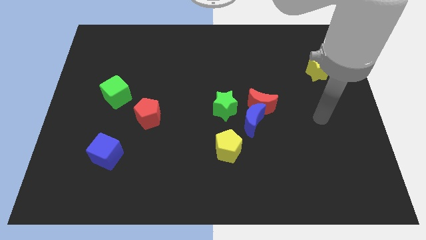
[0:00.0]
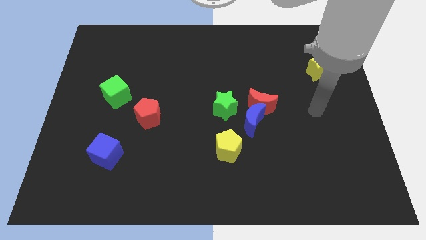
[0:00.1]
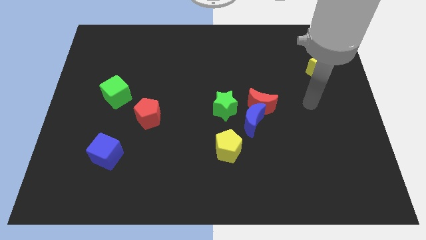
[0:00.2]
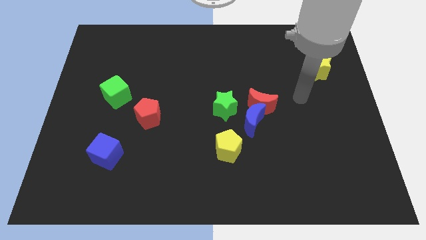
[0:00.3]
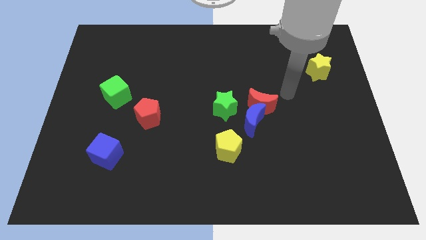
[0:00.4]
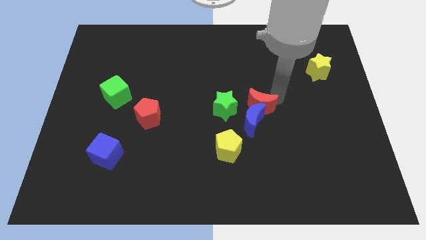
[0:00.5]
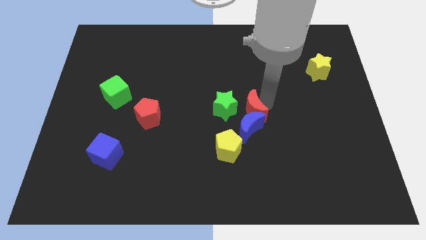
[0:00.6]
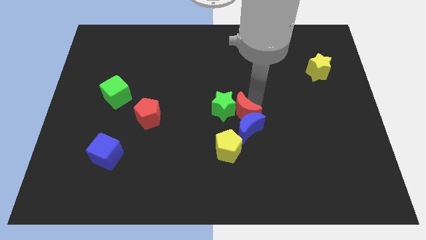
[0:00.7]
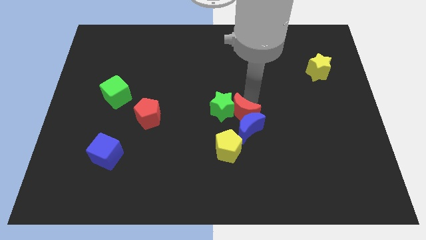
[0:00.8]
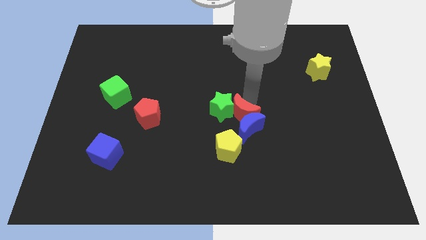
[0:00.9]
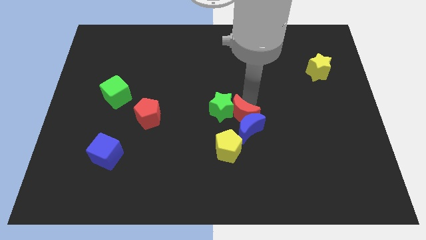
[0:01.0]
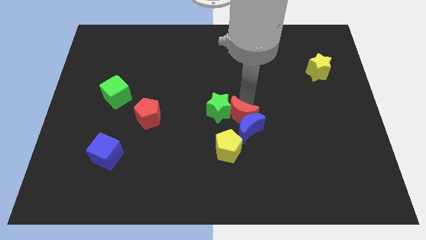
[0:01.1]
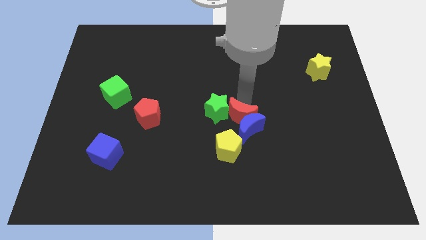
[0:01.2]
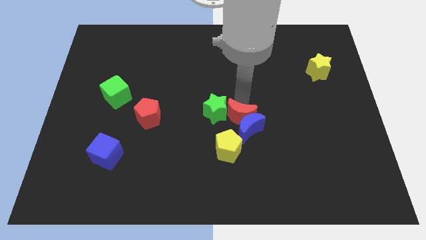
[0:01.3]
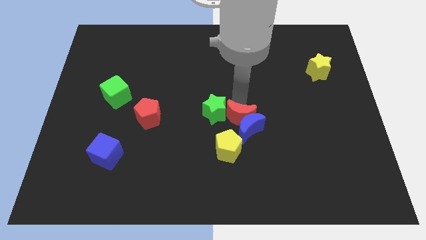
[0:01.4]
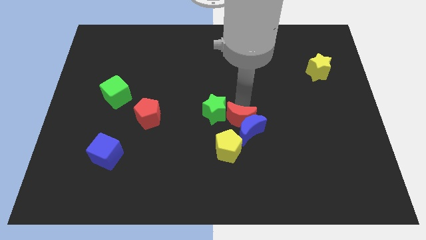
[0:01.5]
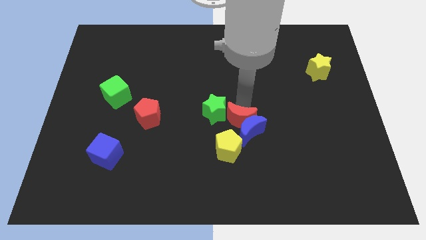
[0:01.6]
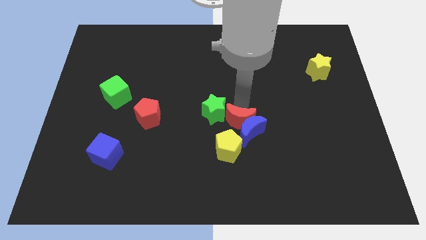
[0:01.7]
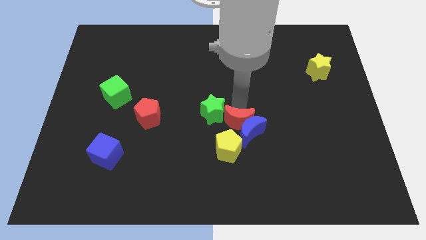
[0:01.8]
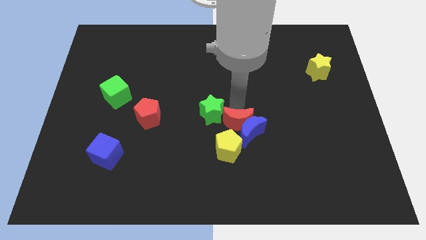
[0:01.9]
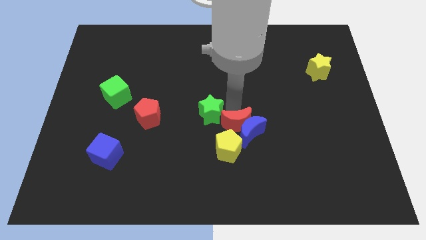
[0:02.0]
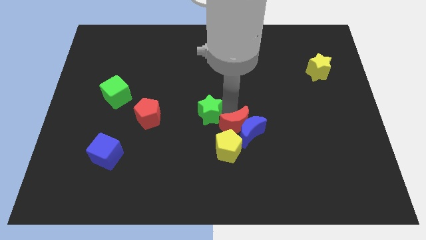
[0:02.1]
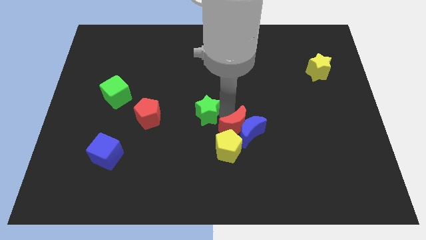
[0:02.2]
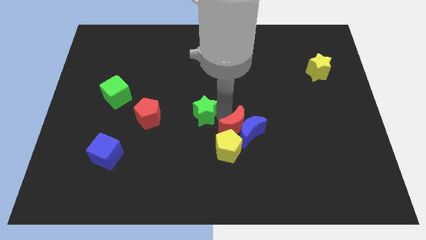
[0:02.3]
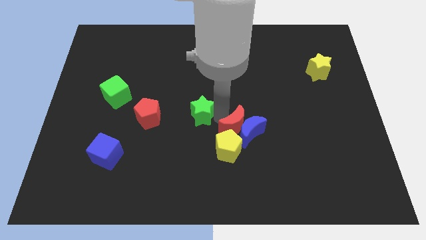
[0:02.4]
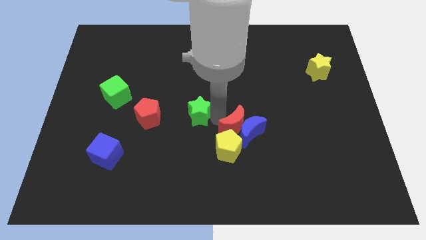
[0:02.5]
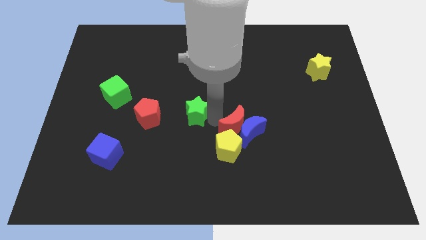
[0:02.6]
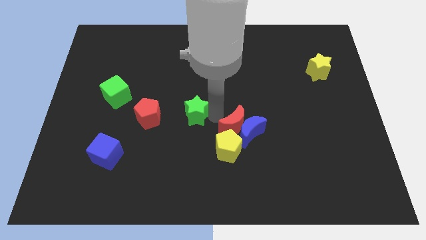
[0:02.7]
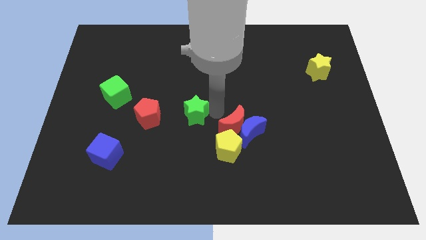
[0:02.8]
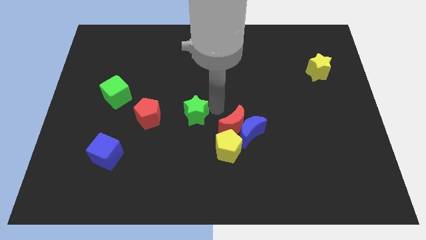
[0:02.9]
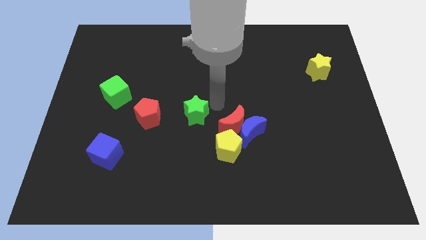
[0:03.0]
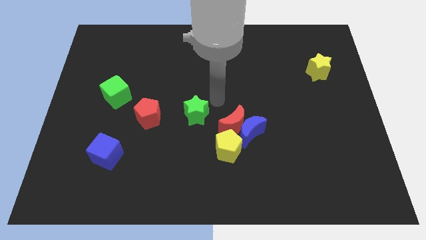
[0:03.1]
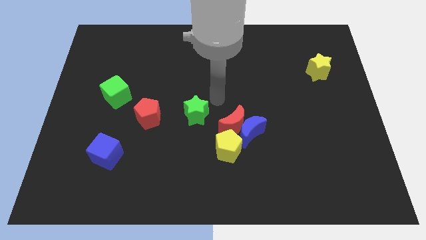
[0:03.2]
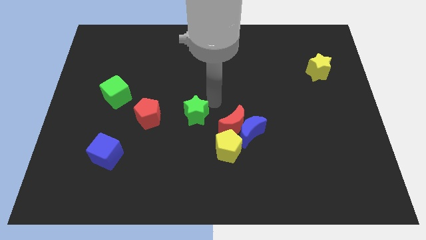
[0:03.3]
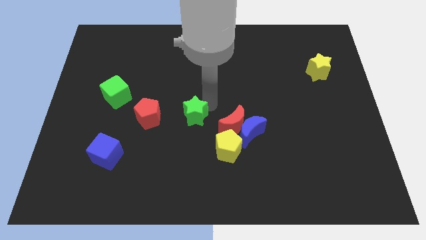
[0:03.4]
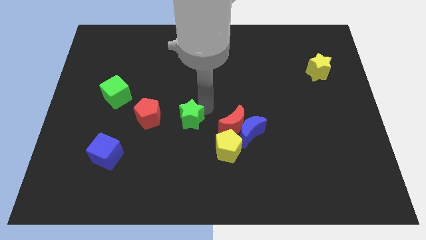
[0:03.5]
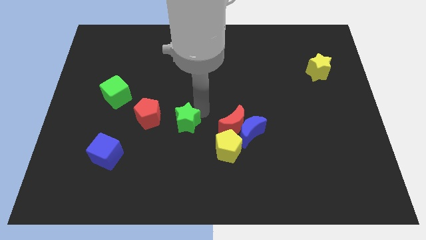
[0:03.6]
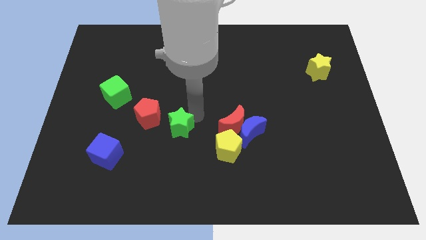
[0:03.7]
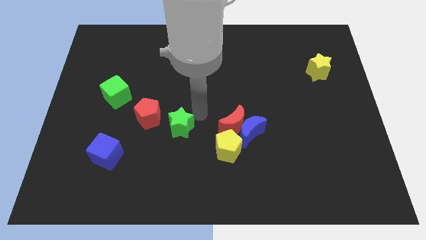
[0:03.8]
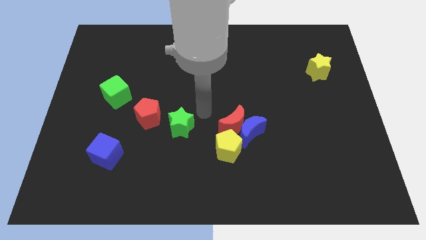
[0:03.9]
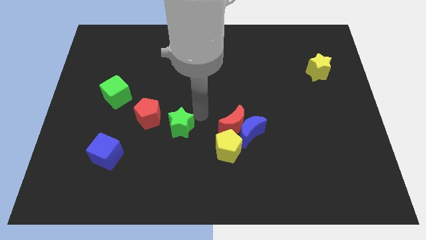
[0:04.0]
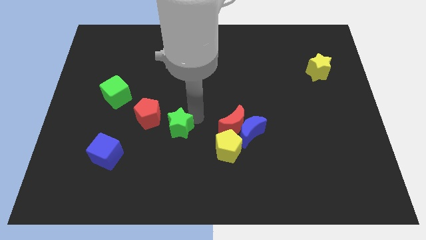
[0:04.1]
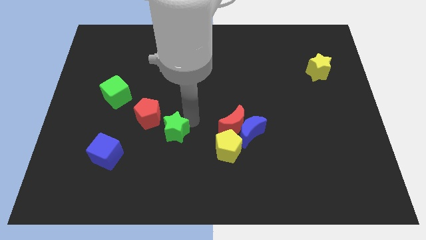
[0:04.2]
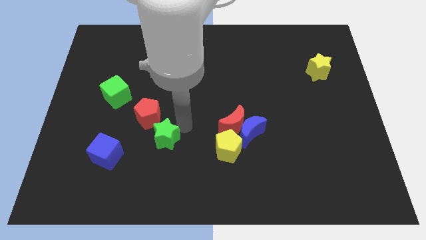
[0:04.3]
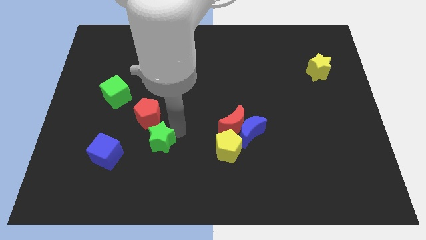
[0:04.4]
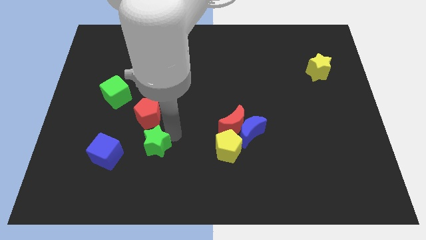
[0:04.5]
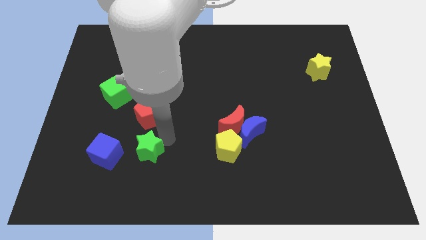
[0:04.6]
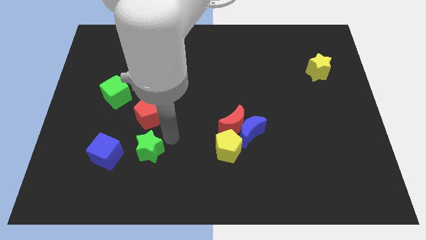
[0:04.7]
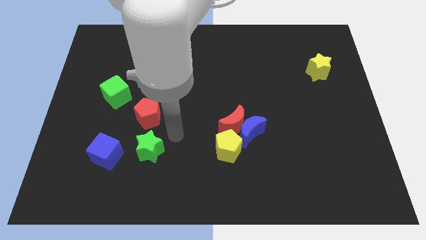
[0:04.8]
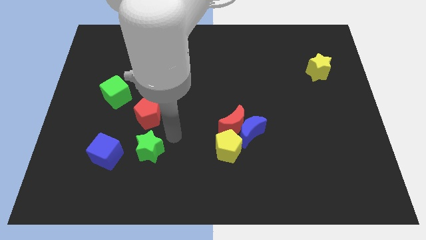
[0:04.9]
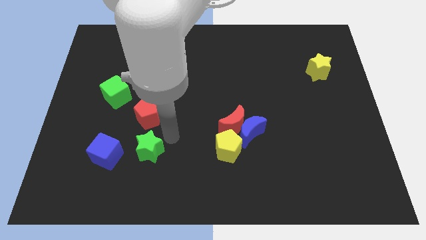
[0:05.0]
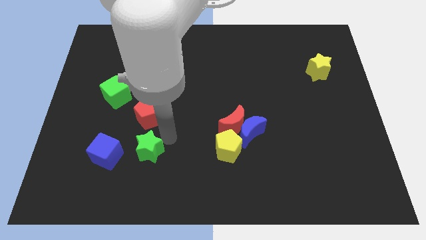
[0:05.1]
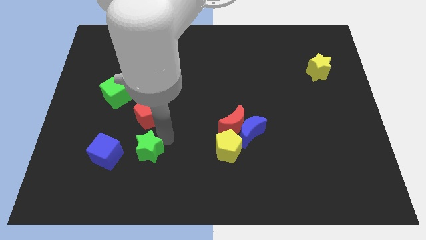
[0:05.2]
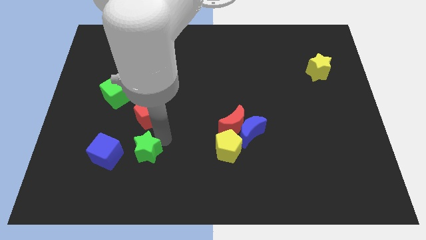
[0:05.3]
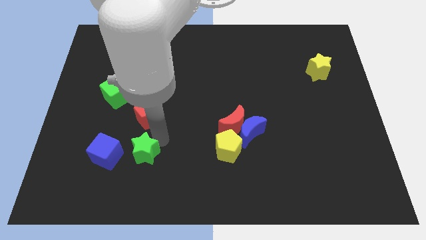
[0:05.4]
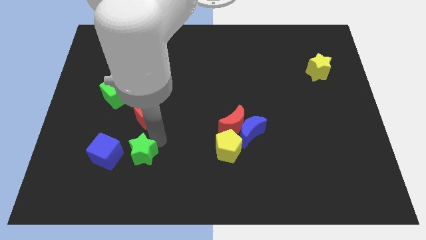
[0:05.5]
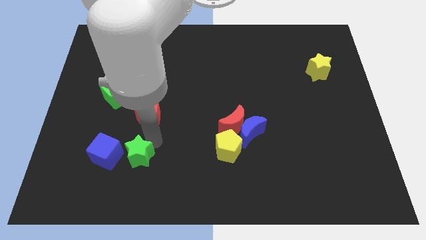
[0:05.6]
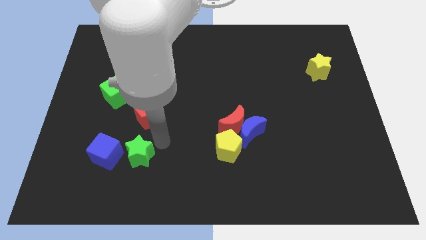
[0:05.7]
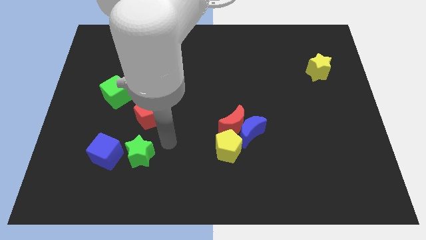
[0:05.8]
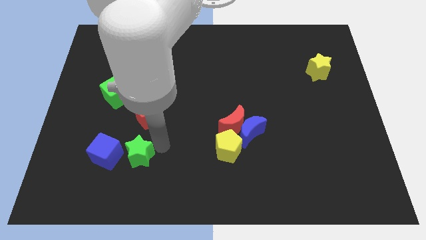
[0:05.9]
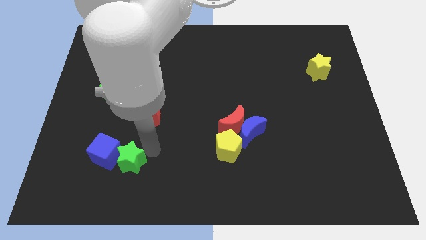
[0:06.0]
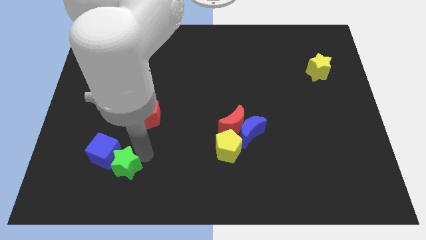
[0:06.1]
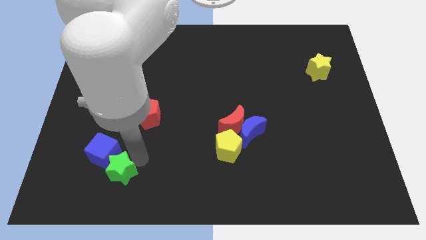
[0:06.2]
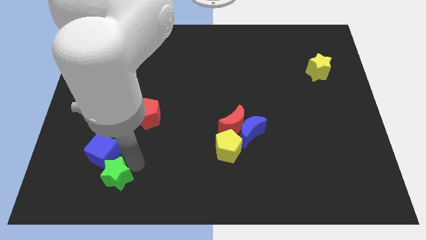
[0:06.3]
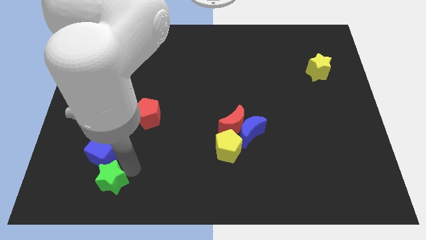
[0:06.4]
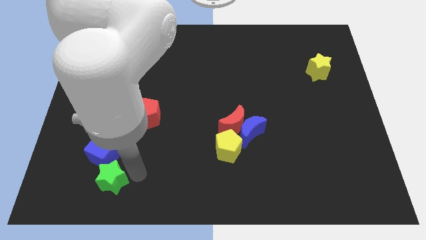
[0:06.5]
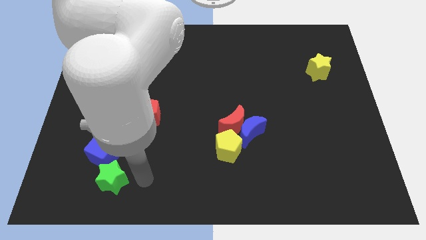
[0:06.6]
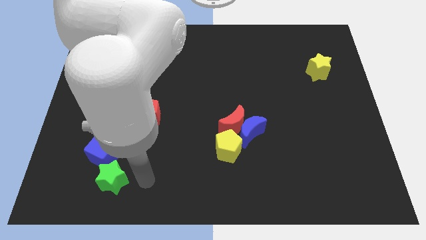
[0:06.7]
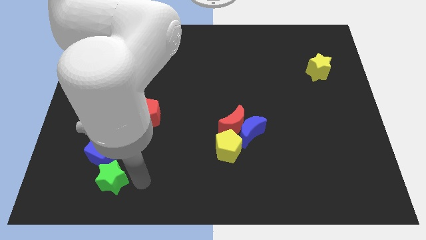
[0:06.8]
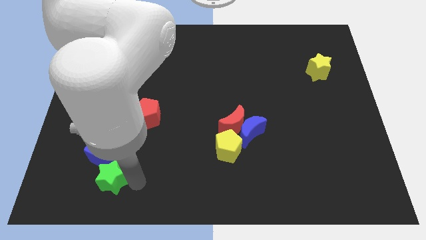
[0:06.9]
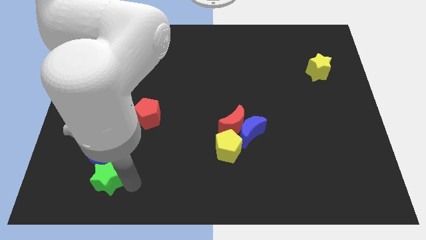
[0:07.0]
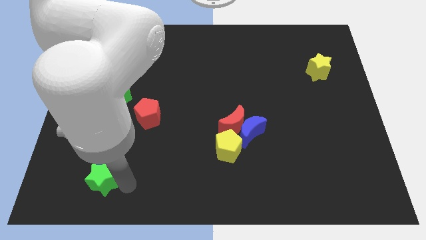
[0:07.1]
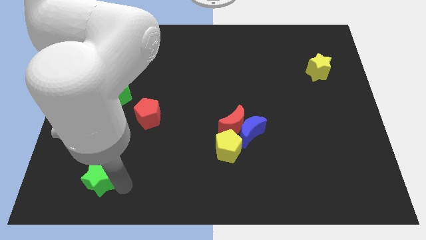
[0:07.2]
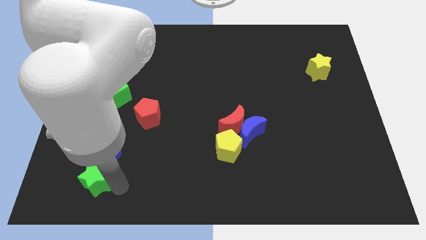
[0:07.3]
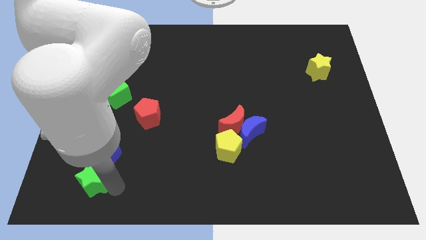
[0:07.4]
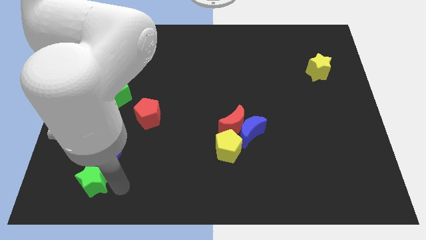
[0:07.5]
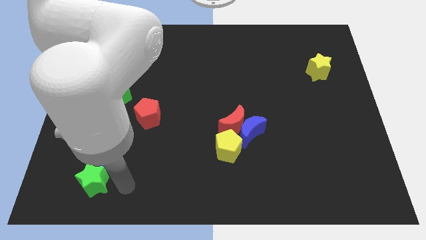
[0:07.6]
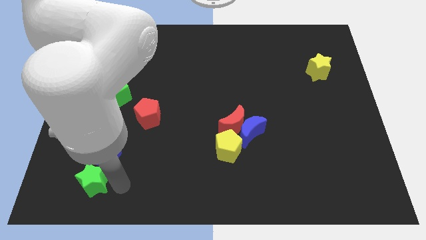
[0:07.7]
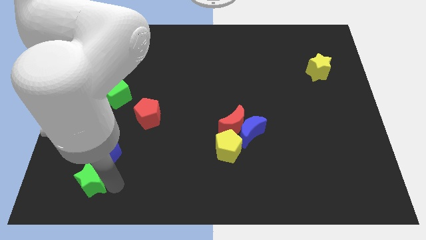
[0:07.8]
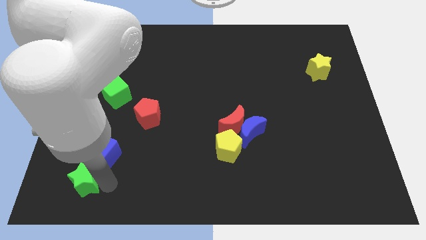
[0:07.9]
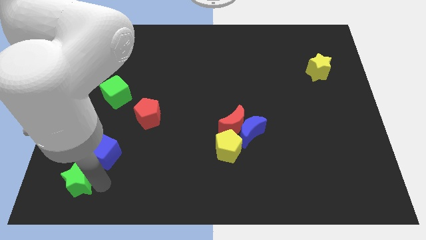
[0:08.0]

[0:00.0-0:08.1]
push the green star to the bottom left corner
